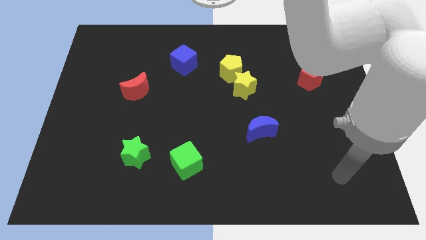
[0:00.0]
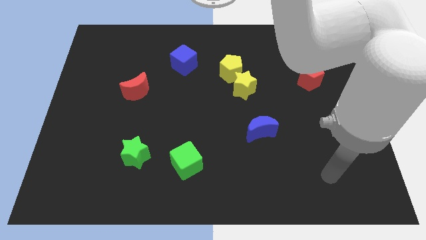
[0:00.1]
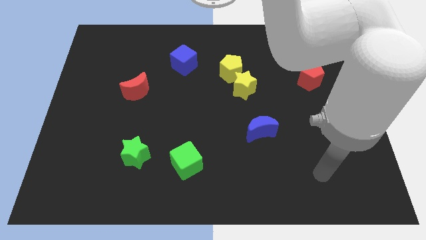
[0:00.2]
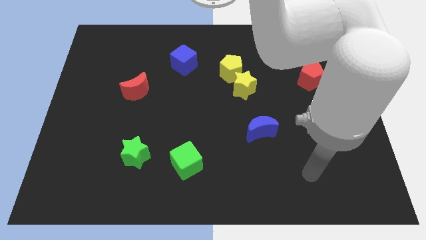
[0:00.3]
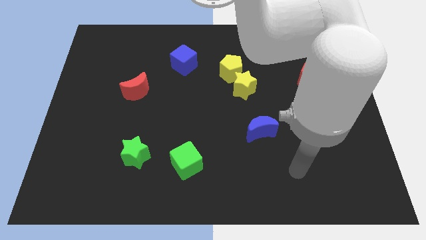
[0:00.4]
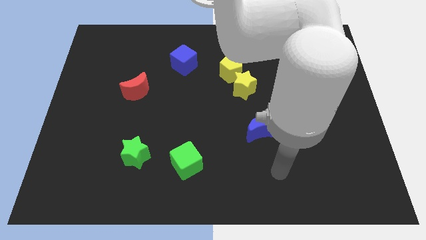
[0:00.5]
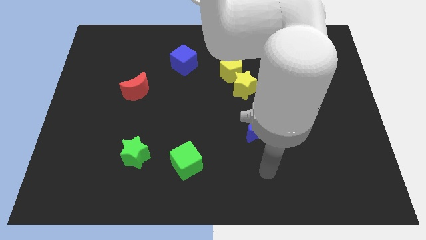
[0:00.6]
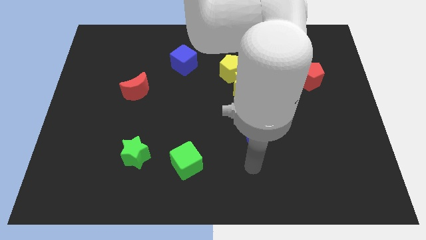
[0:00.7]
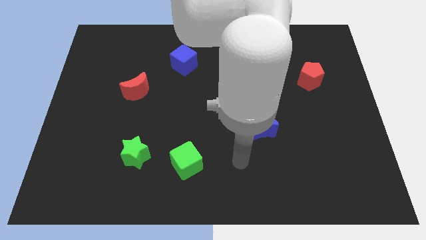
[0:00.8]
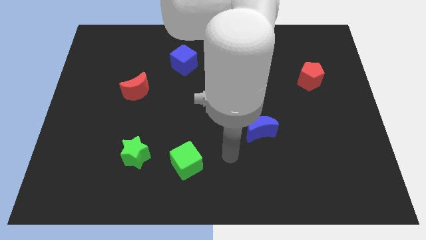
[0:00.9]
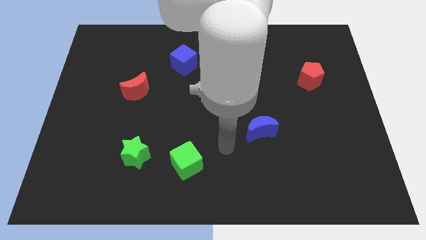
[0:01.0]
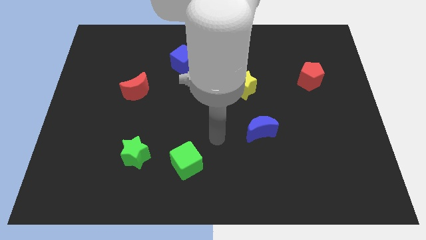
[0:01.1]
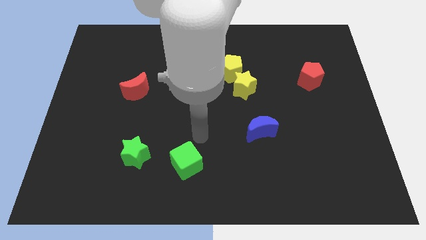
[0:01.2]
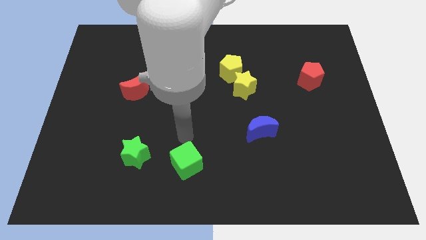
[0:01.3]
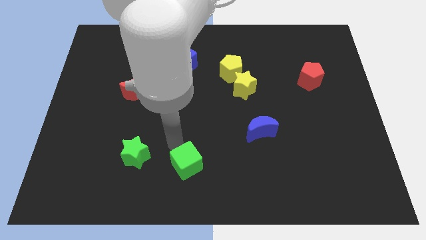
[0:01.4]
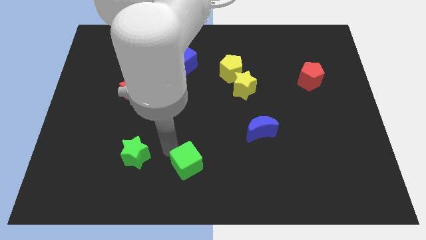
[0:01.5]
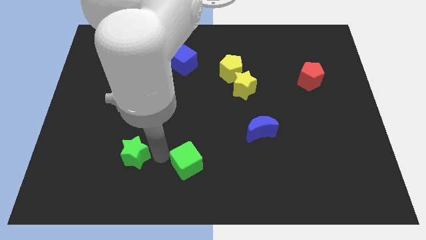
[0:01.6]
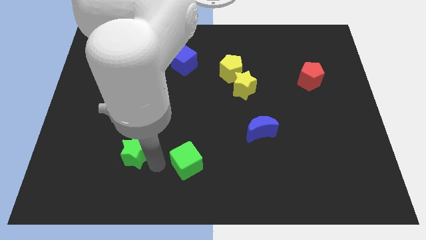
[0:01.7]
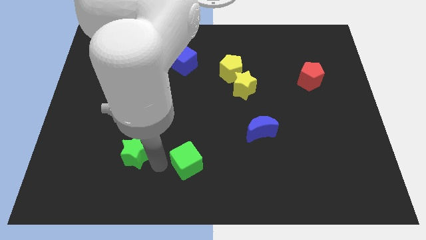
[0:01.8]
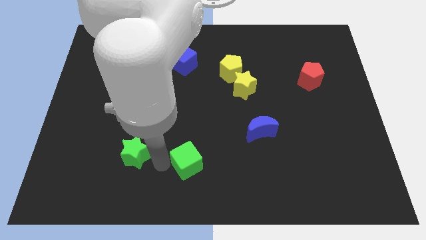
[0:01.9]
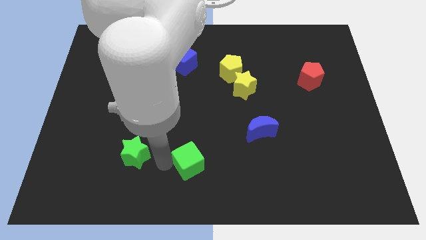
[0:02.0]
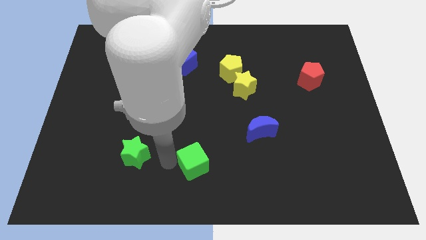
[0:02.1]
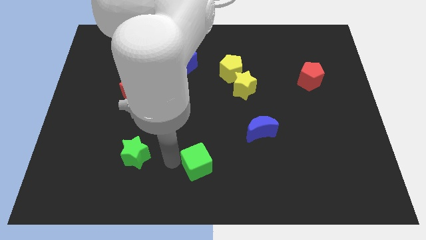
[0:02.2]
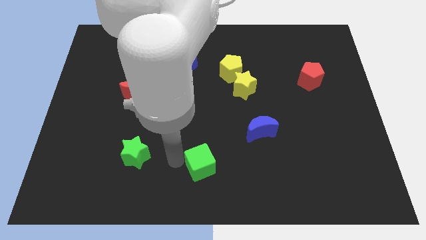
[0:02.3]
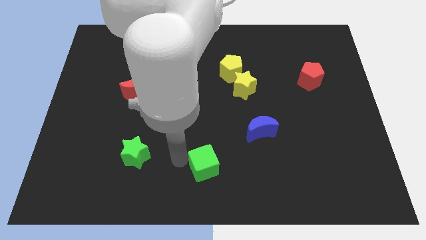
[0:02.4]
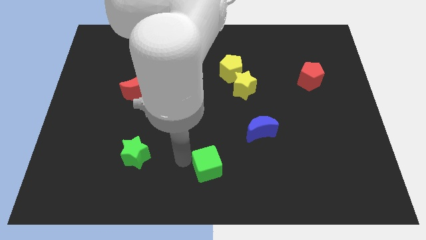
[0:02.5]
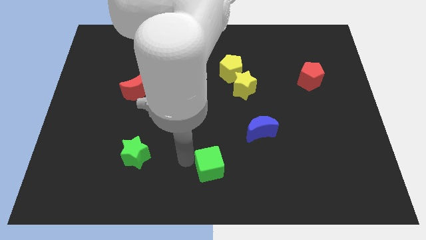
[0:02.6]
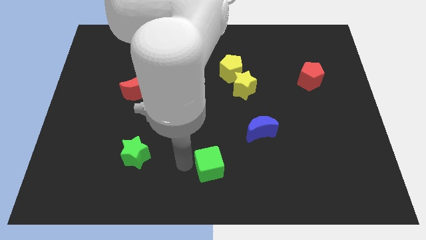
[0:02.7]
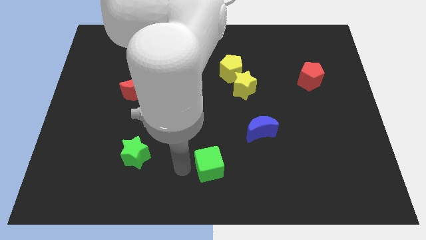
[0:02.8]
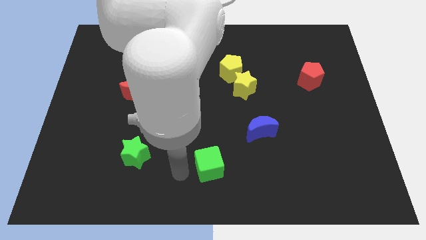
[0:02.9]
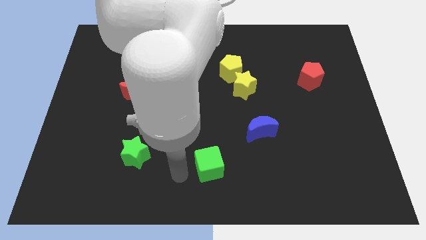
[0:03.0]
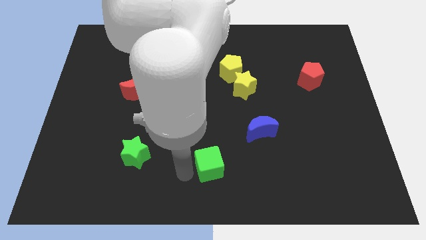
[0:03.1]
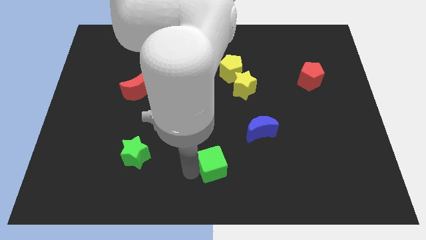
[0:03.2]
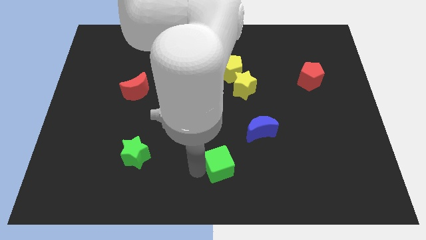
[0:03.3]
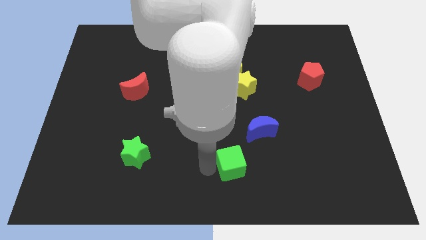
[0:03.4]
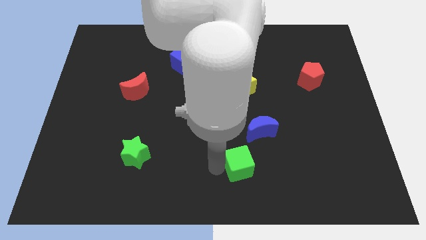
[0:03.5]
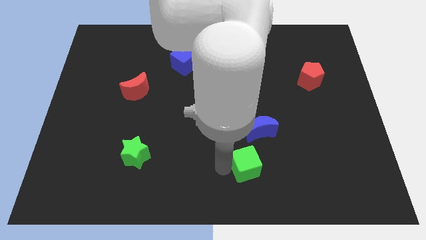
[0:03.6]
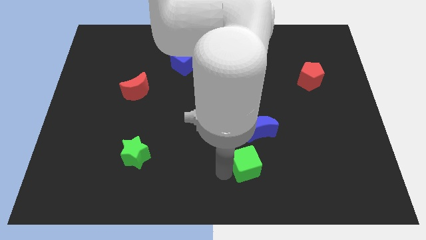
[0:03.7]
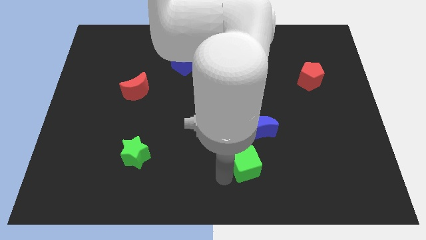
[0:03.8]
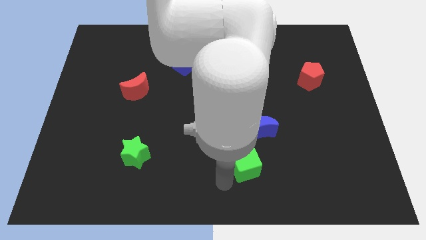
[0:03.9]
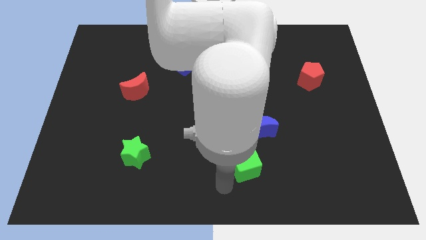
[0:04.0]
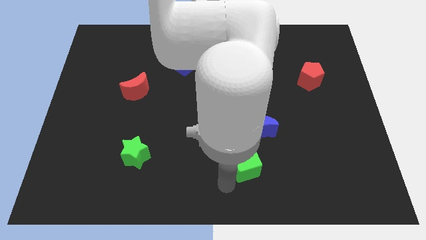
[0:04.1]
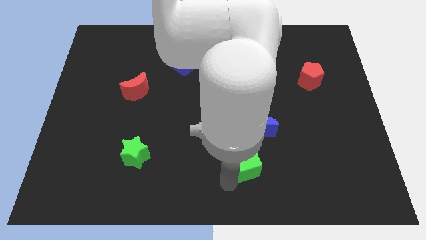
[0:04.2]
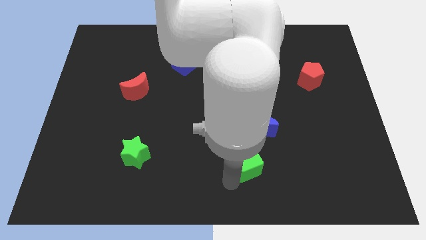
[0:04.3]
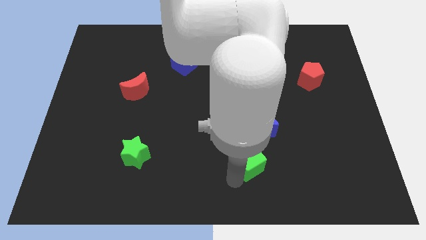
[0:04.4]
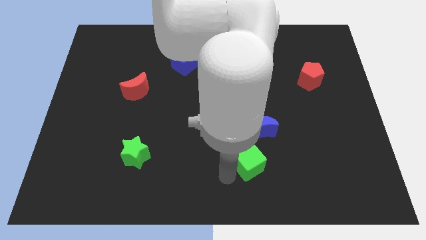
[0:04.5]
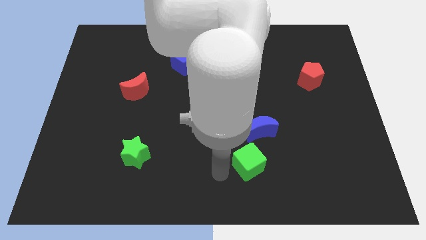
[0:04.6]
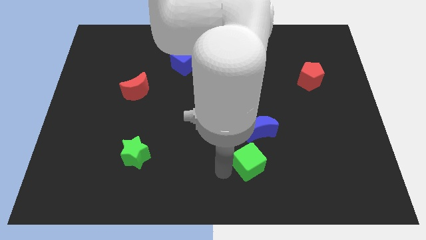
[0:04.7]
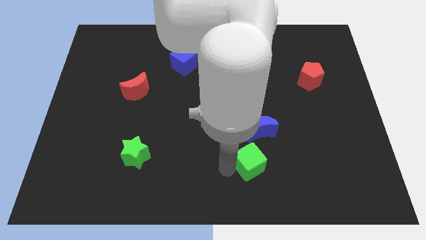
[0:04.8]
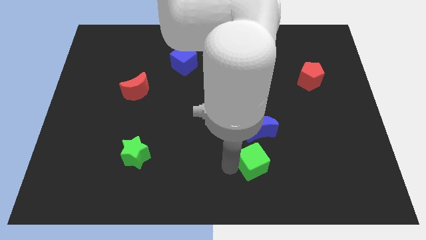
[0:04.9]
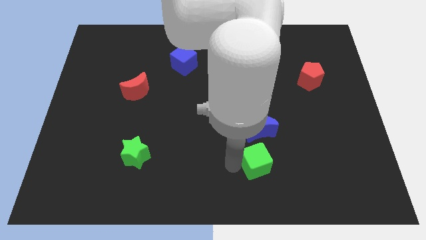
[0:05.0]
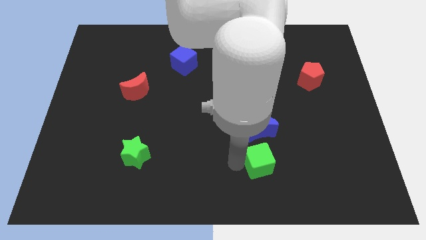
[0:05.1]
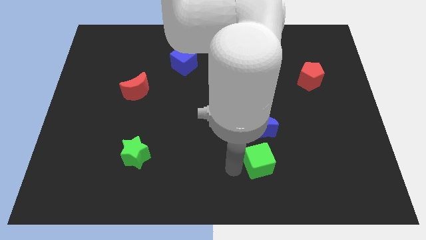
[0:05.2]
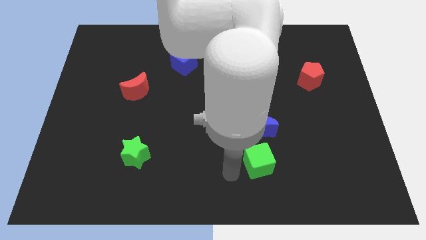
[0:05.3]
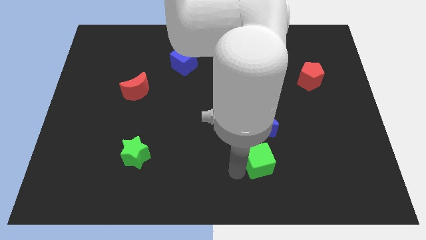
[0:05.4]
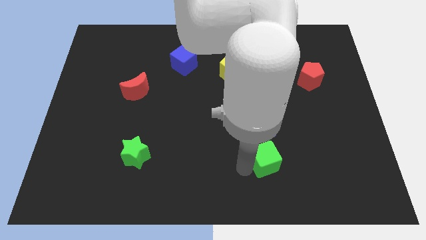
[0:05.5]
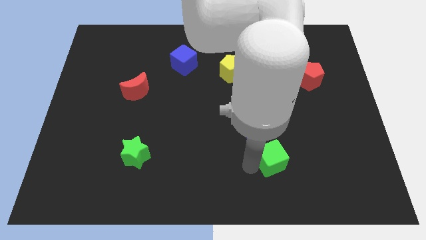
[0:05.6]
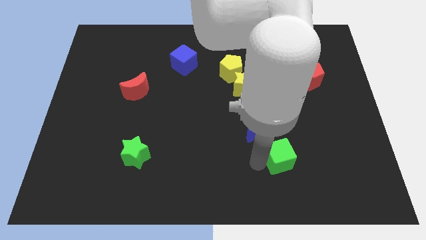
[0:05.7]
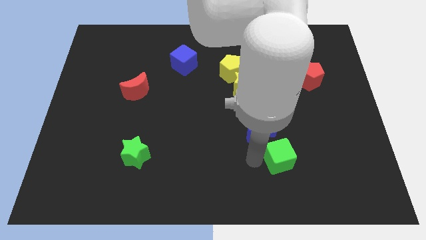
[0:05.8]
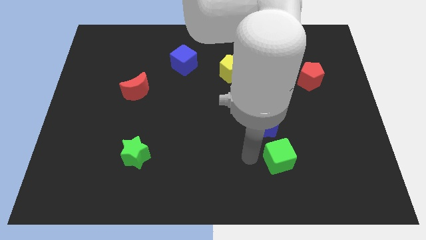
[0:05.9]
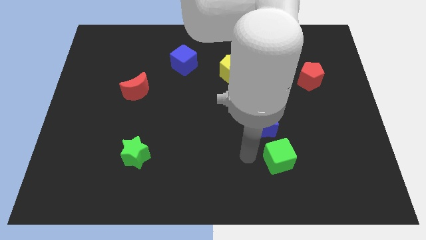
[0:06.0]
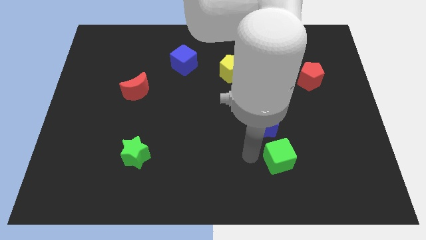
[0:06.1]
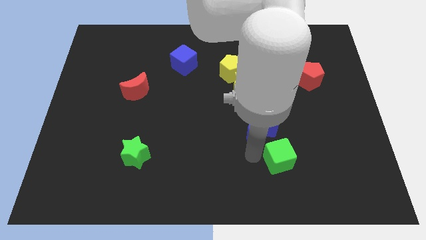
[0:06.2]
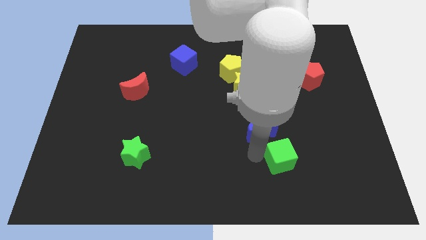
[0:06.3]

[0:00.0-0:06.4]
slide the green cube to the right

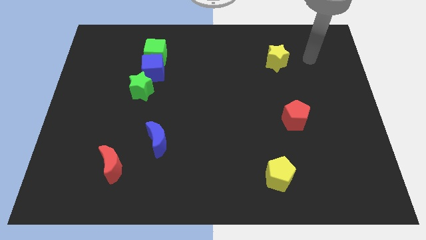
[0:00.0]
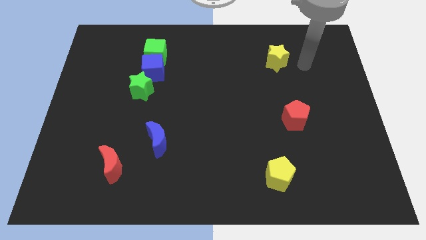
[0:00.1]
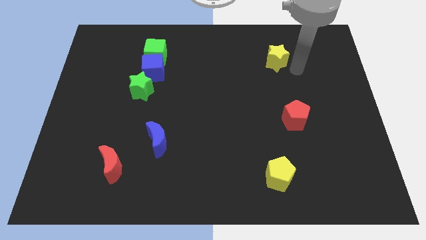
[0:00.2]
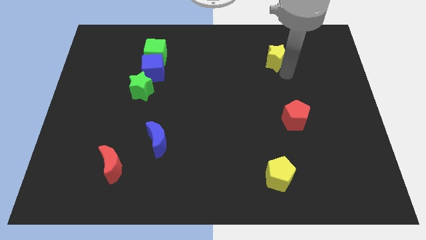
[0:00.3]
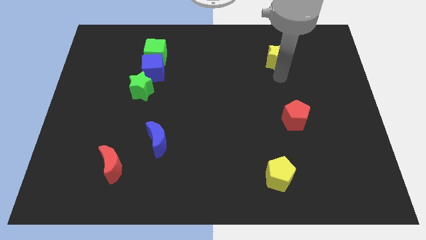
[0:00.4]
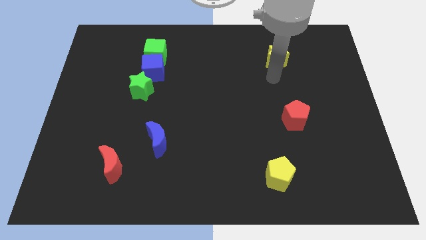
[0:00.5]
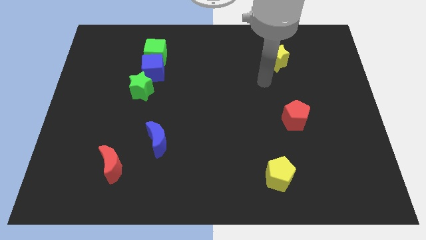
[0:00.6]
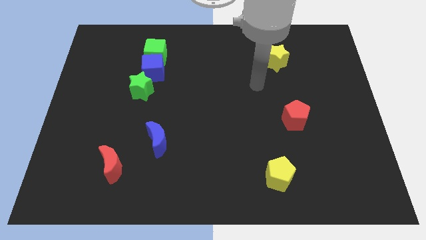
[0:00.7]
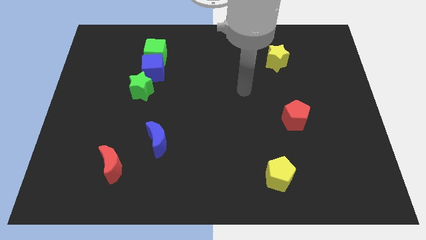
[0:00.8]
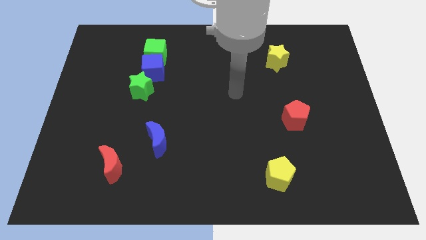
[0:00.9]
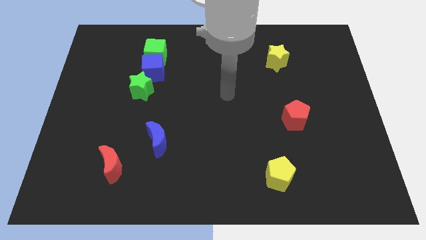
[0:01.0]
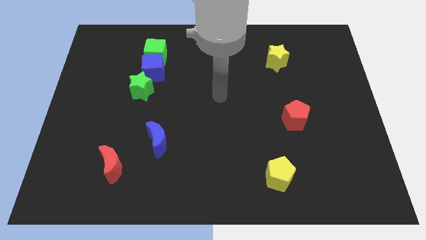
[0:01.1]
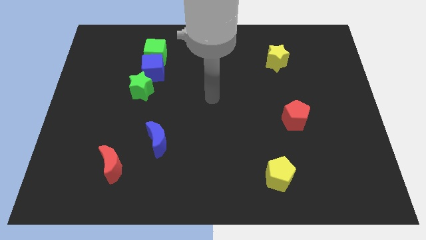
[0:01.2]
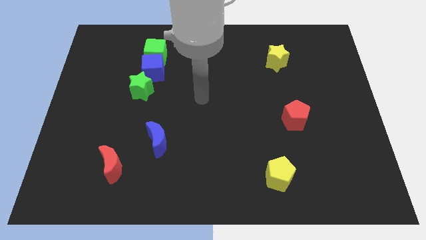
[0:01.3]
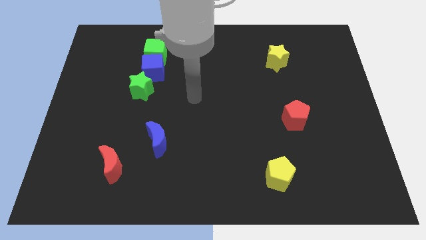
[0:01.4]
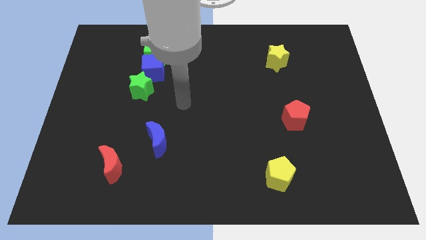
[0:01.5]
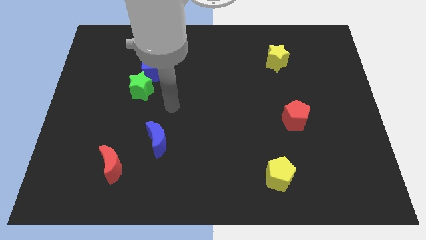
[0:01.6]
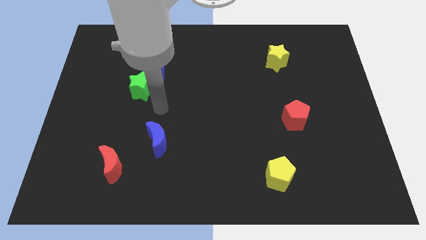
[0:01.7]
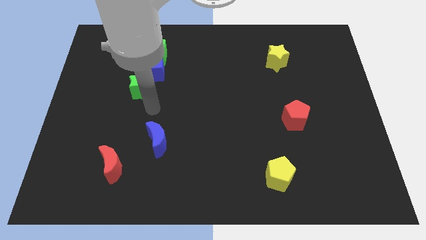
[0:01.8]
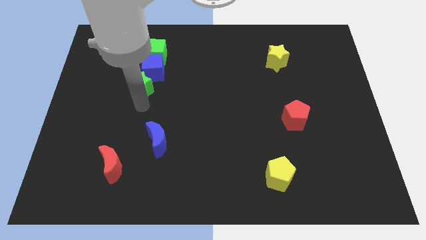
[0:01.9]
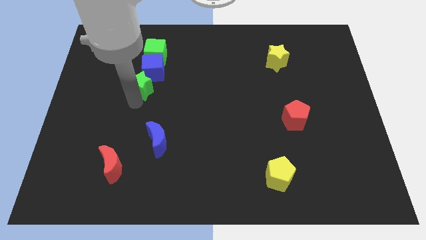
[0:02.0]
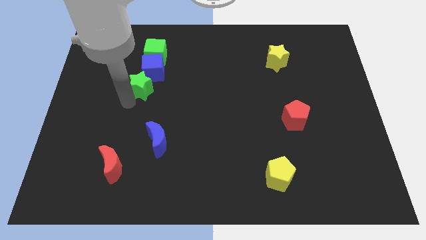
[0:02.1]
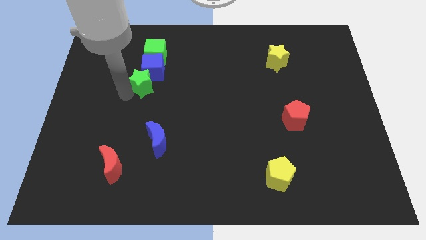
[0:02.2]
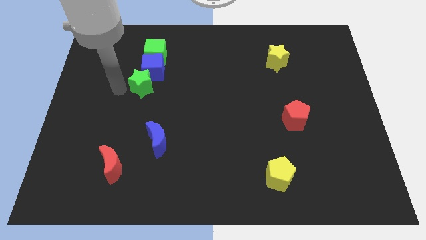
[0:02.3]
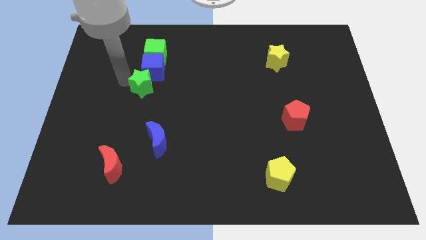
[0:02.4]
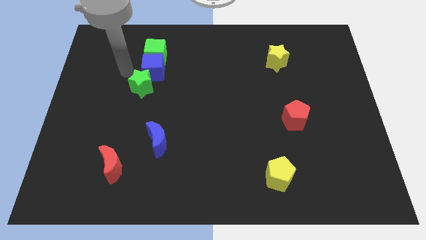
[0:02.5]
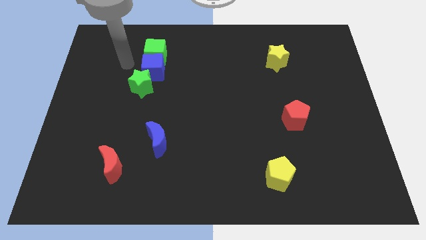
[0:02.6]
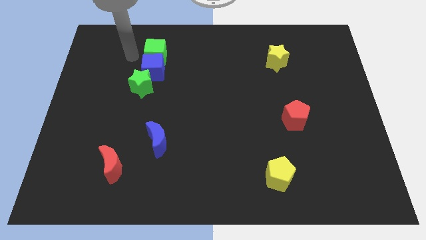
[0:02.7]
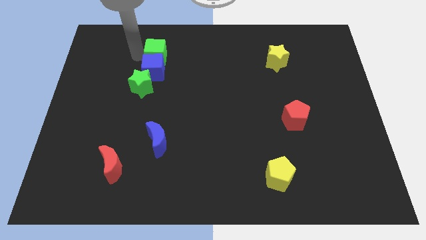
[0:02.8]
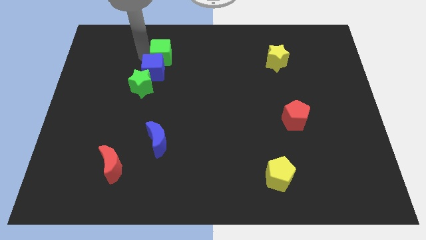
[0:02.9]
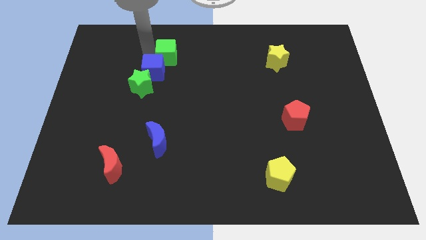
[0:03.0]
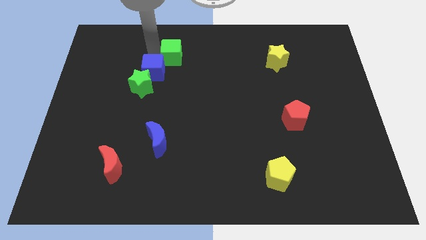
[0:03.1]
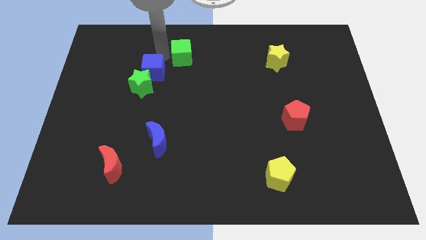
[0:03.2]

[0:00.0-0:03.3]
slide the green cube somewhat to the right
